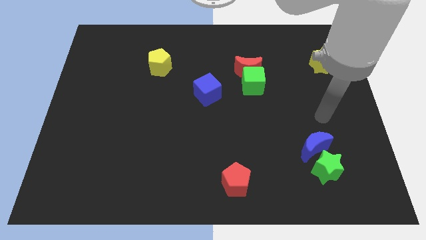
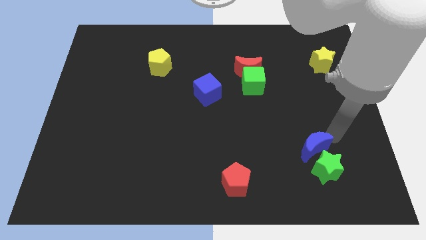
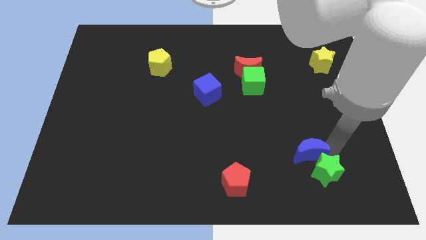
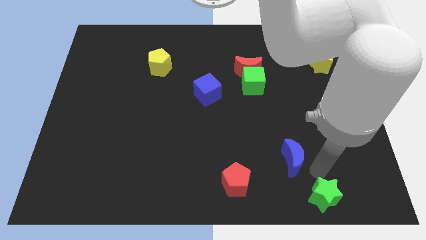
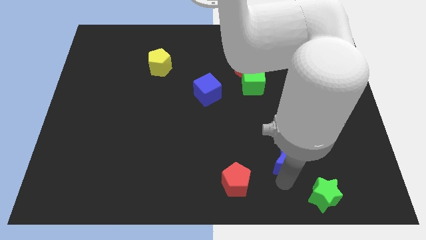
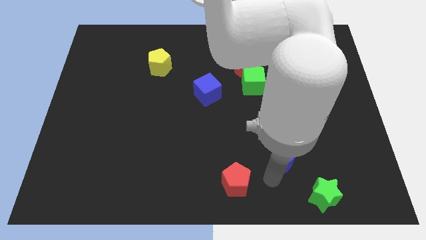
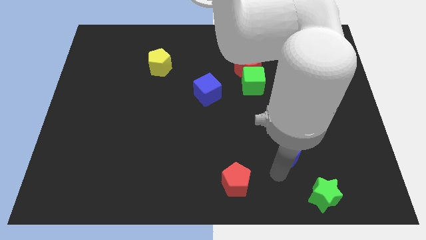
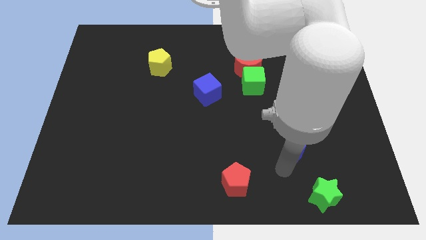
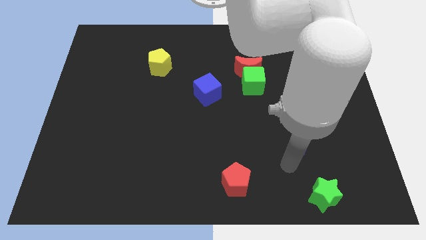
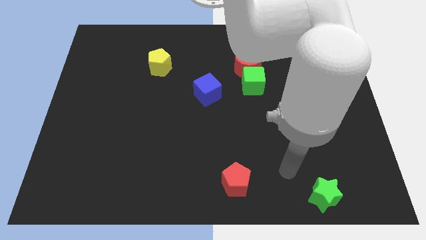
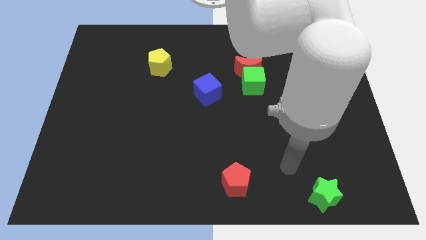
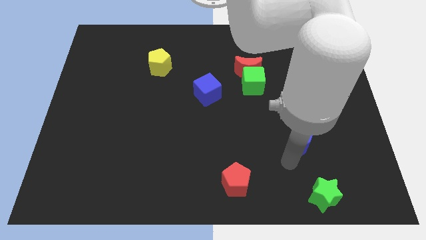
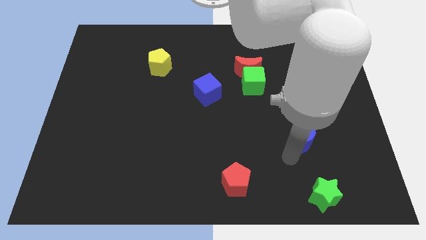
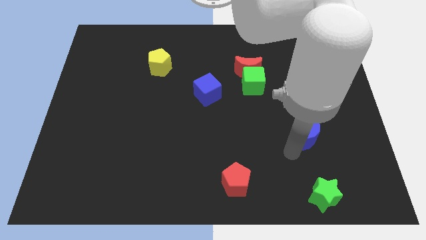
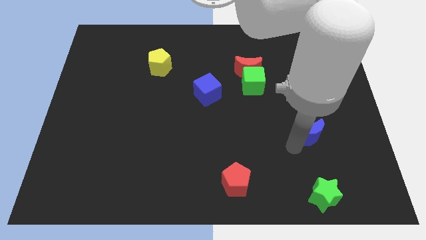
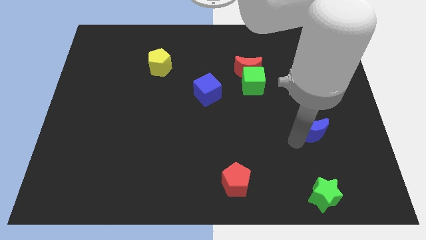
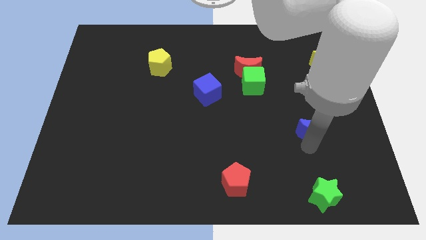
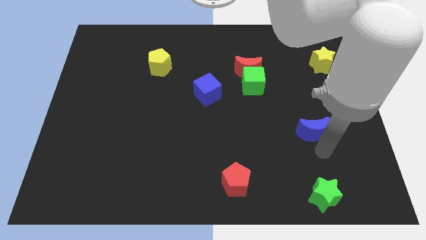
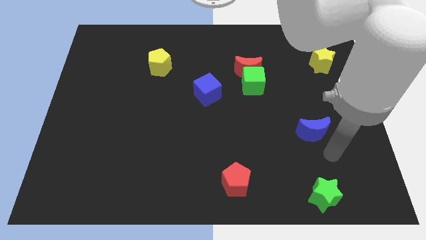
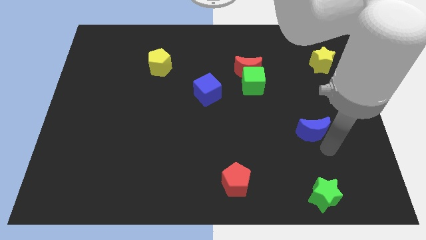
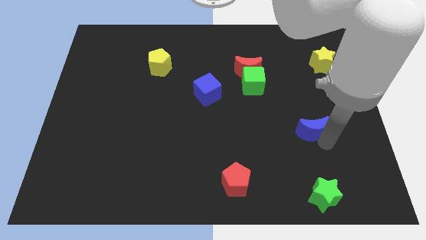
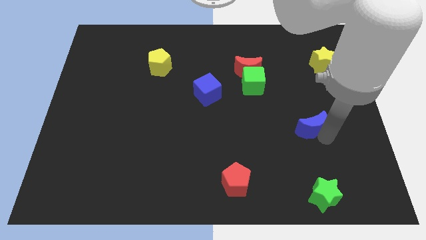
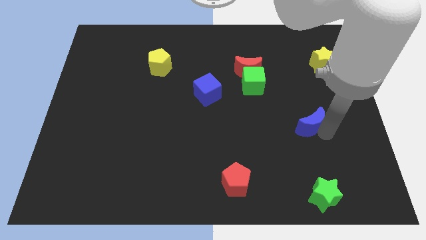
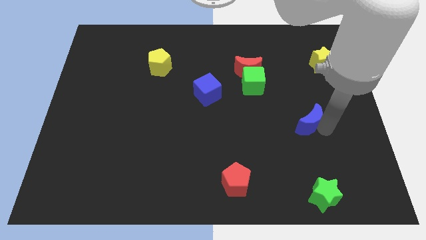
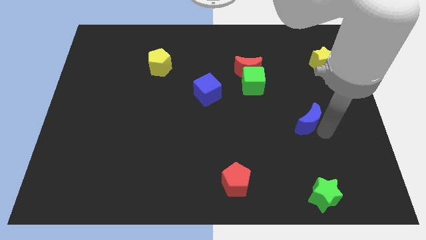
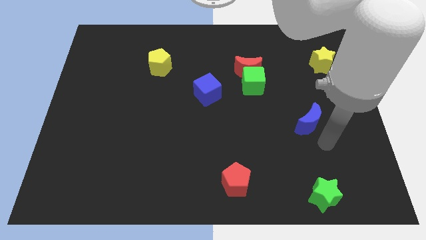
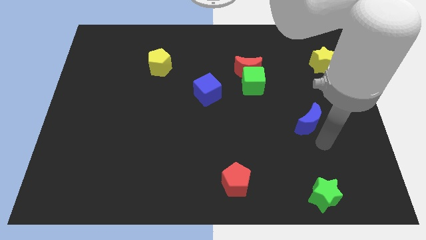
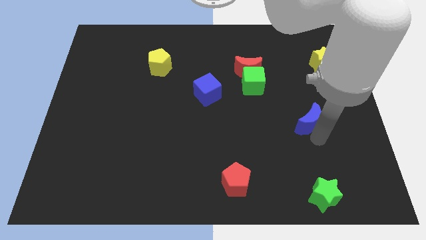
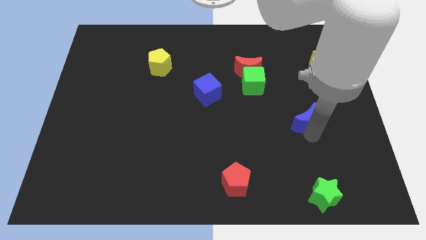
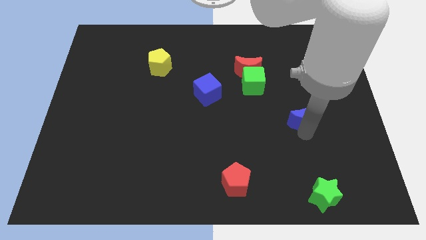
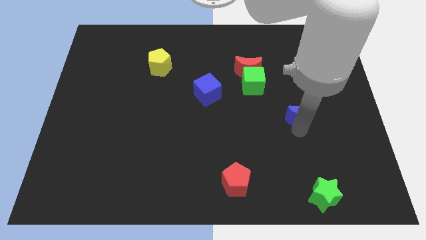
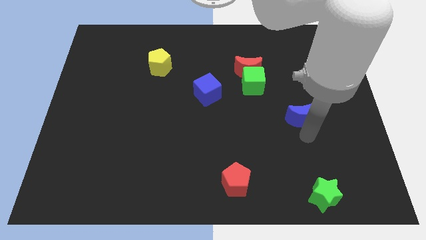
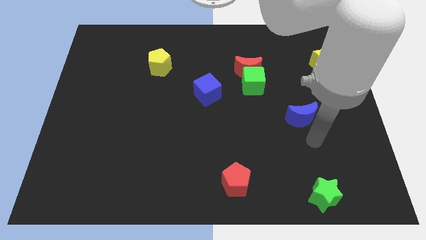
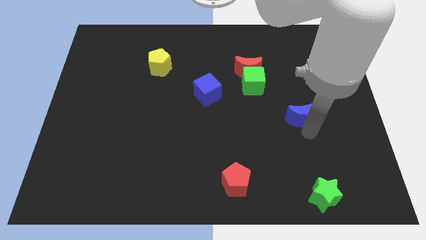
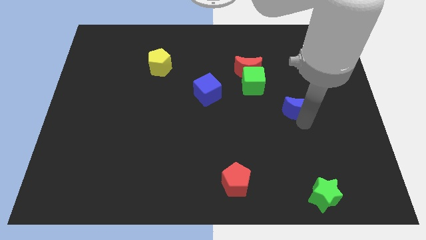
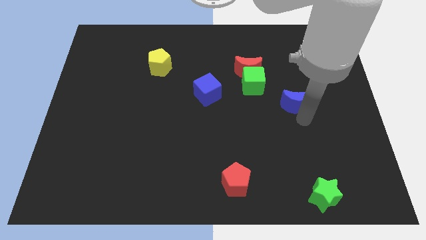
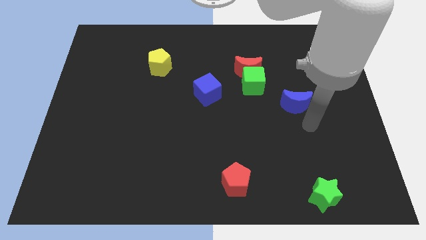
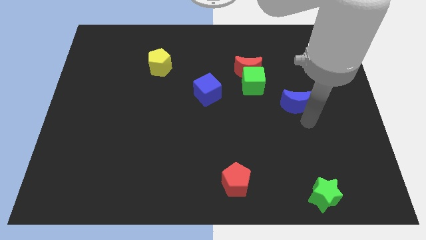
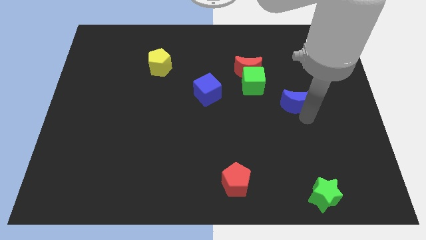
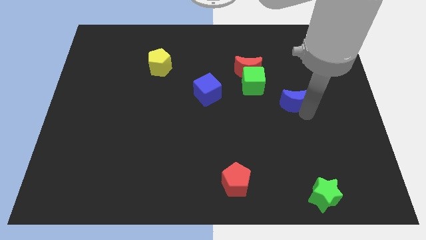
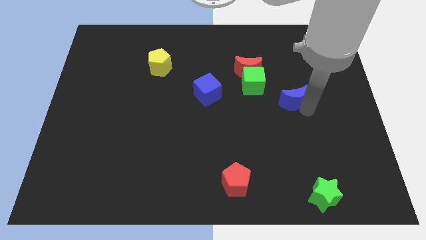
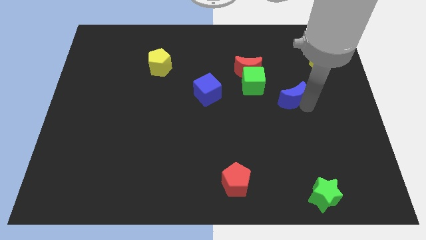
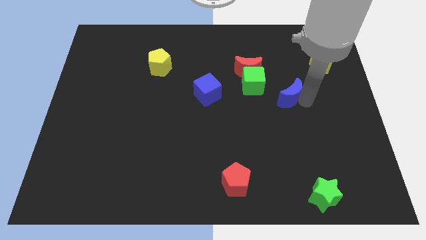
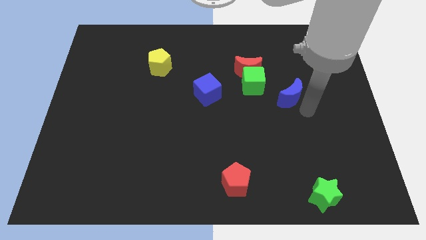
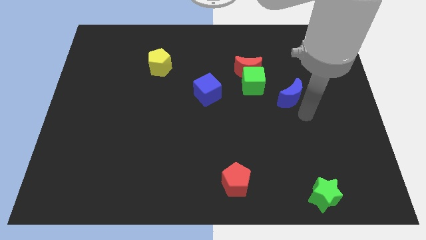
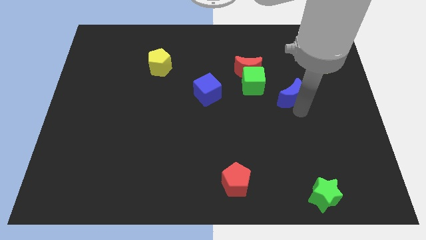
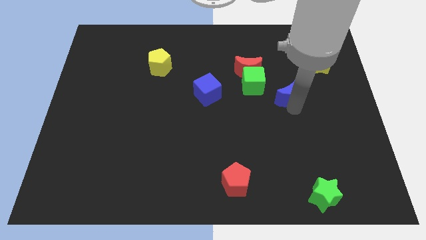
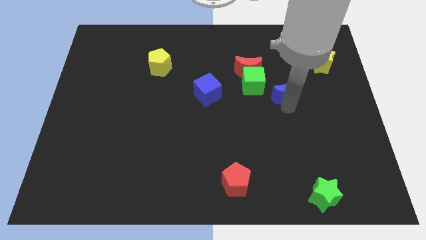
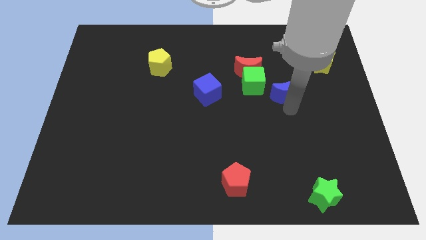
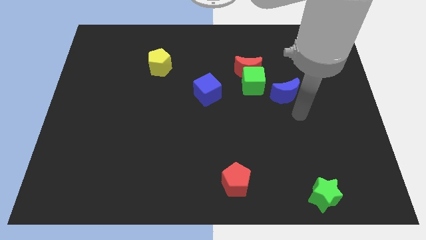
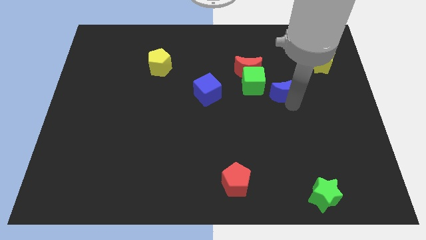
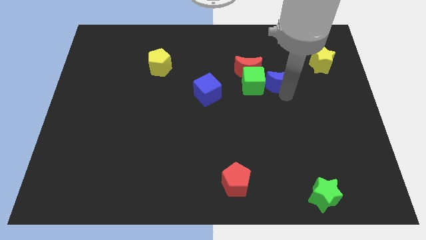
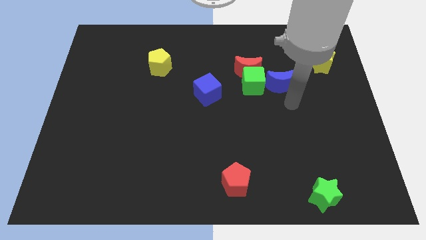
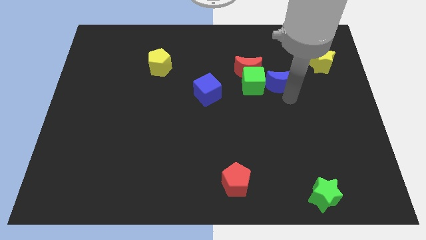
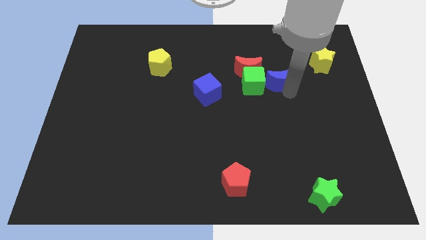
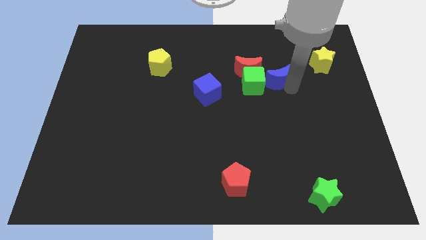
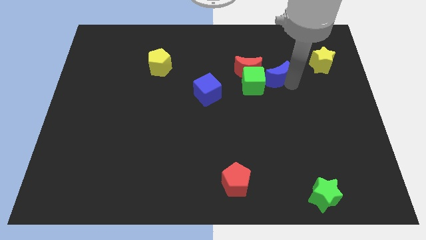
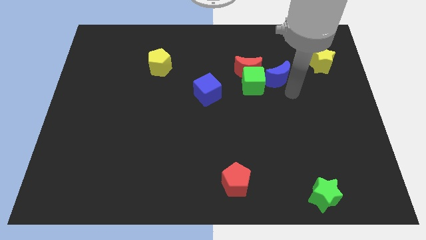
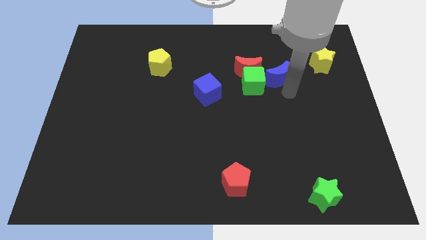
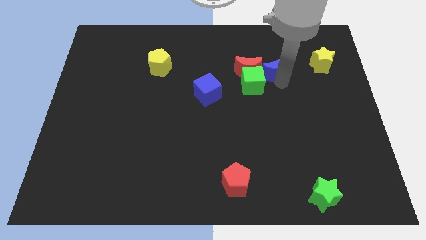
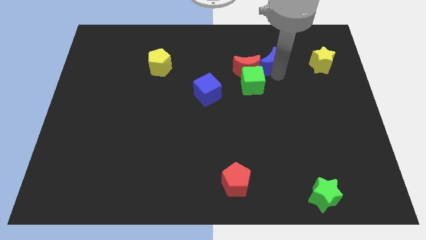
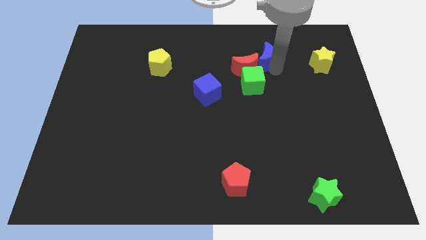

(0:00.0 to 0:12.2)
put the blue moon to the top of the green cube

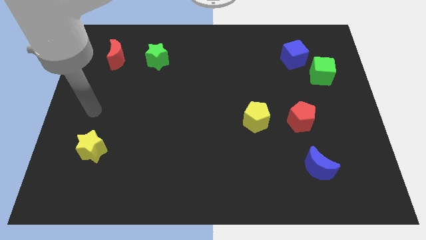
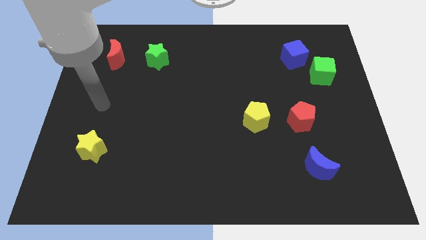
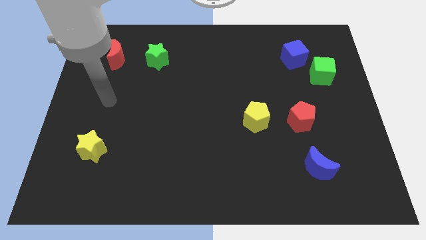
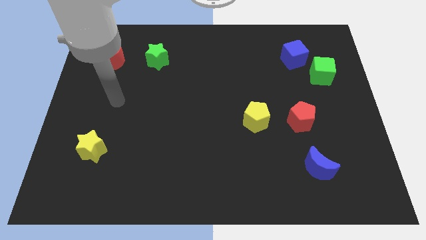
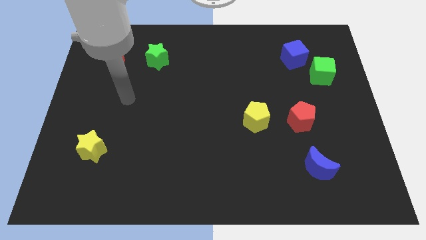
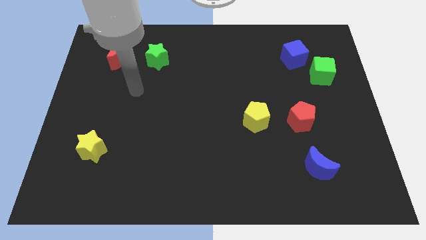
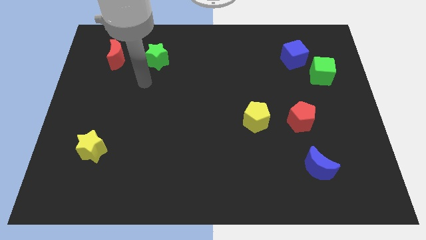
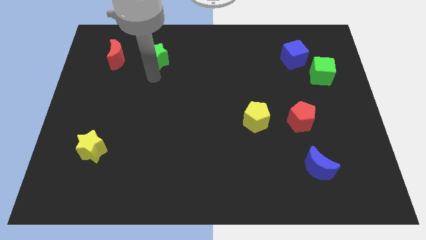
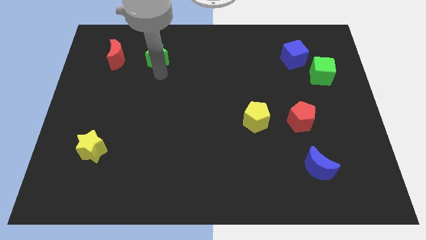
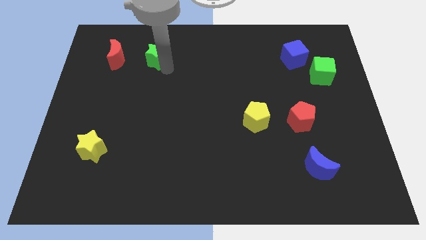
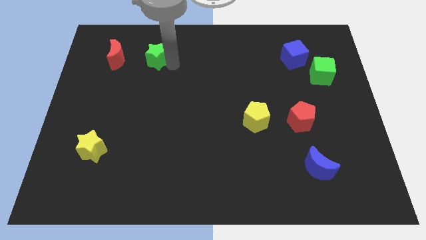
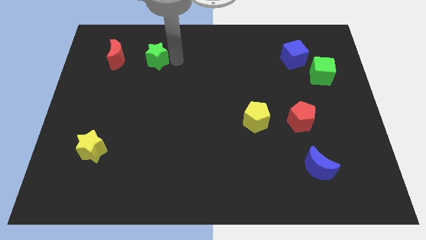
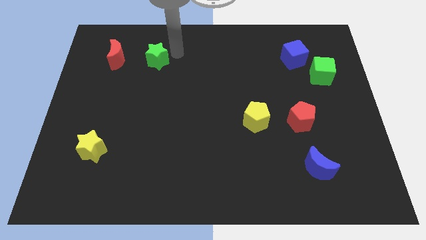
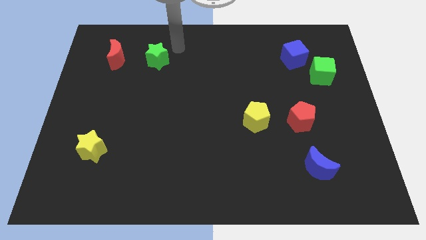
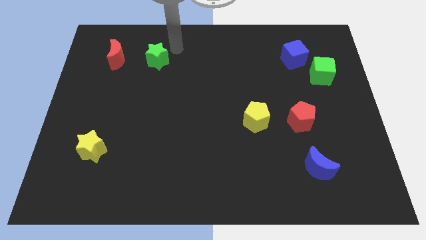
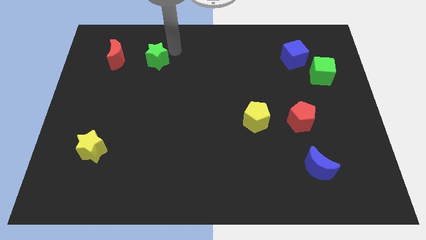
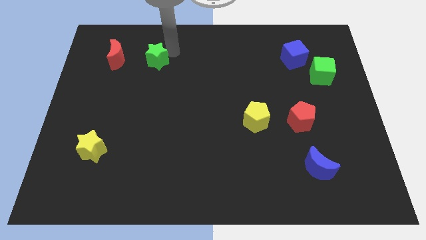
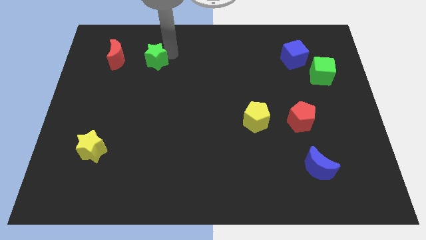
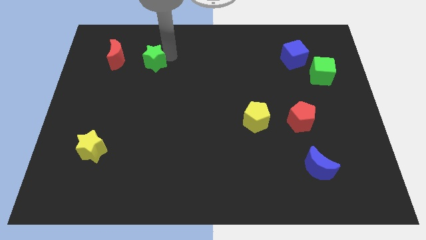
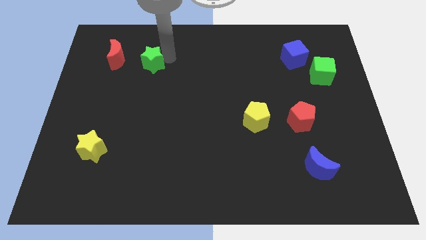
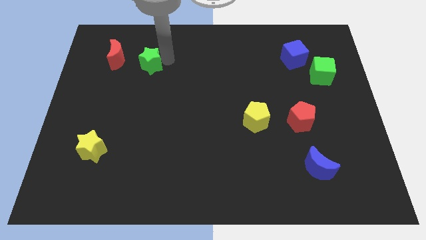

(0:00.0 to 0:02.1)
move the green star to the bottom right side of the red moon
